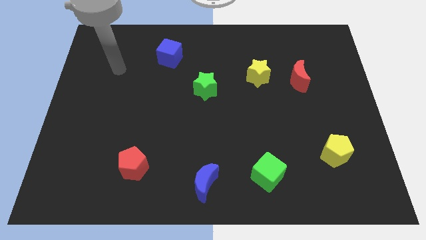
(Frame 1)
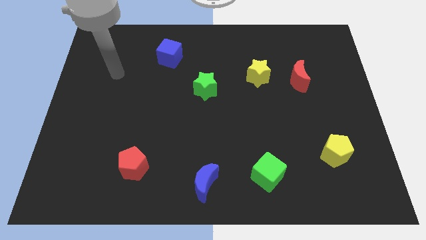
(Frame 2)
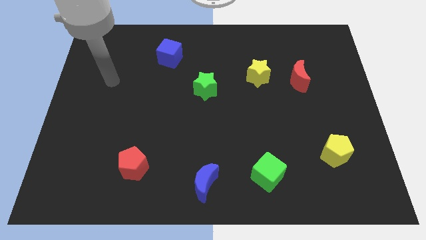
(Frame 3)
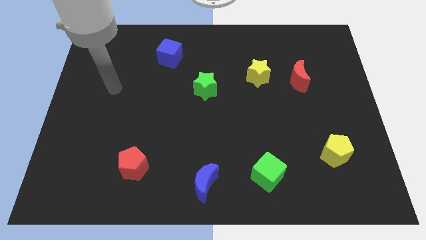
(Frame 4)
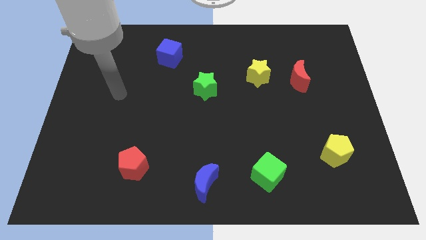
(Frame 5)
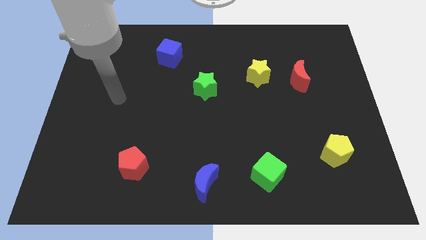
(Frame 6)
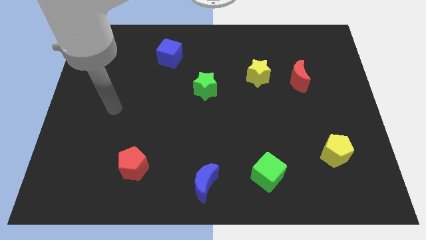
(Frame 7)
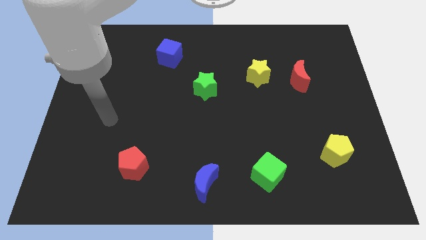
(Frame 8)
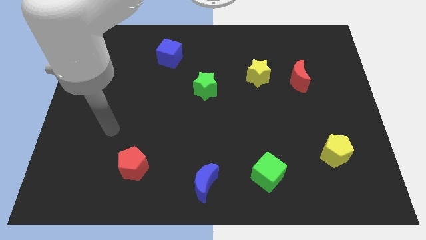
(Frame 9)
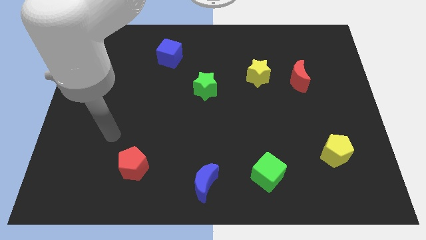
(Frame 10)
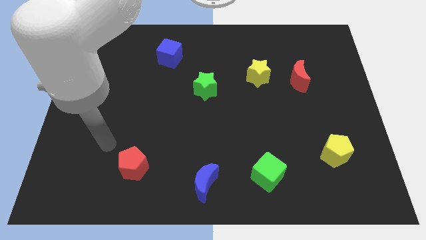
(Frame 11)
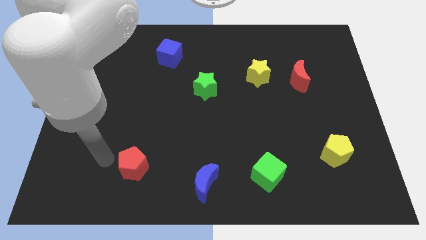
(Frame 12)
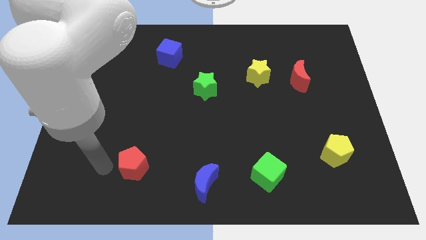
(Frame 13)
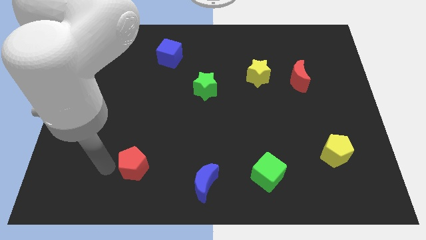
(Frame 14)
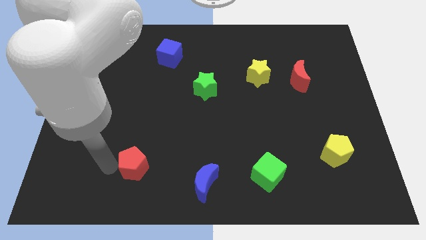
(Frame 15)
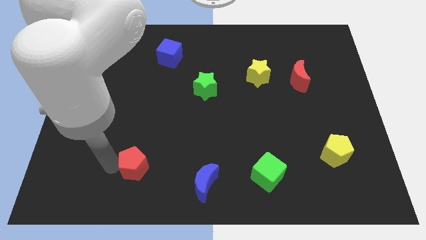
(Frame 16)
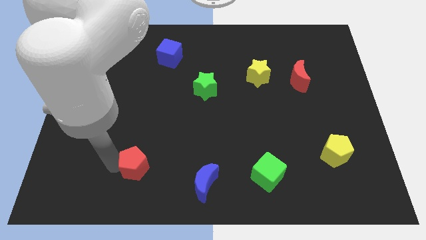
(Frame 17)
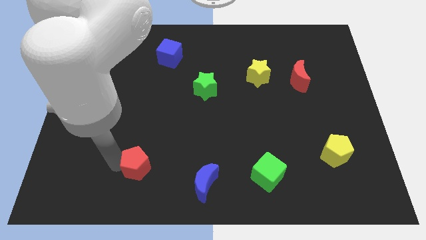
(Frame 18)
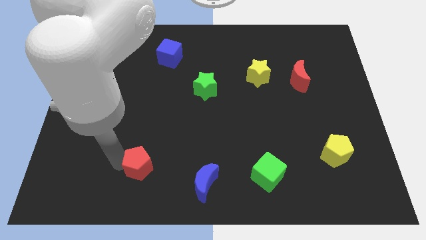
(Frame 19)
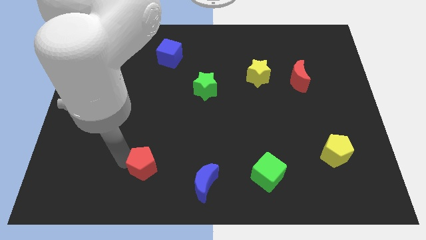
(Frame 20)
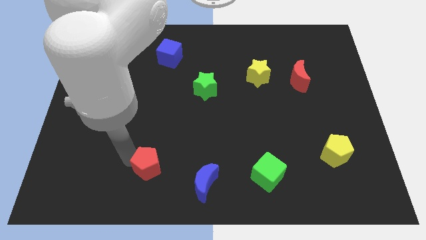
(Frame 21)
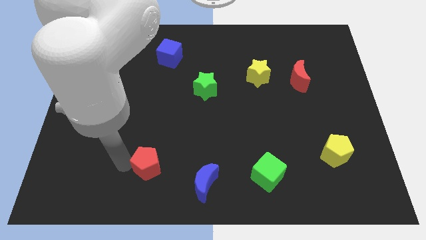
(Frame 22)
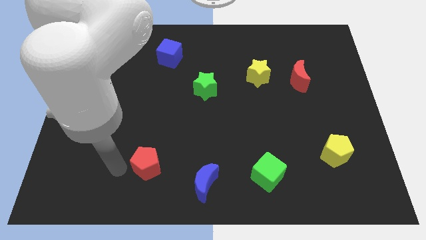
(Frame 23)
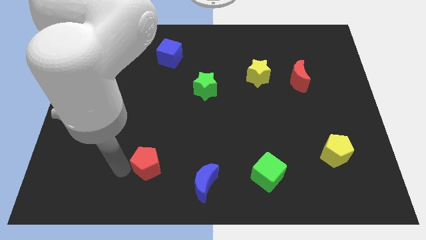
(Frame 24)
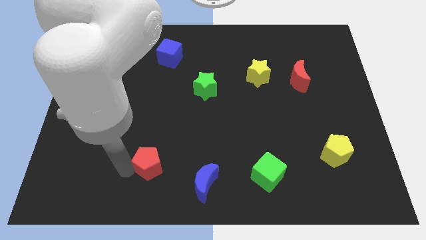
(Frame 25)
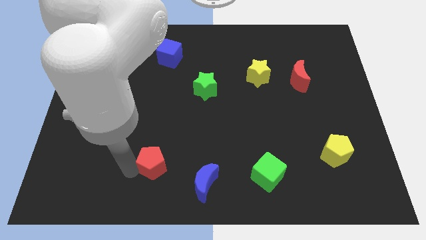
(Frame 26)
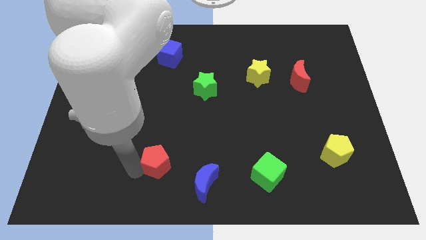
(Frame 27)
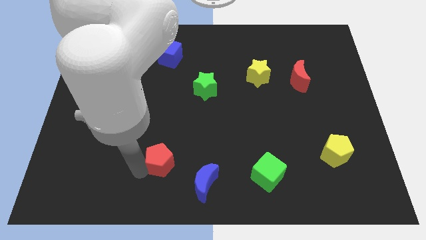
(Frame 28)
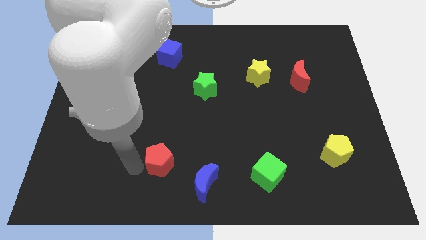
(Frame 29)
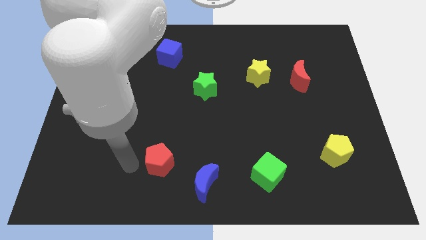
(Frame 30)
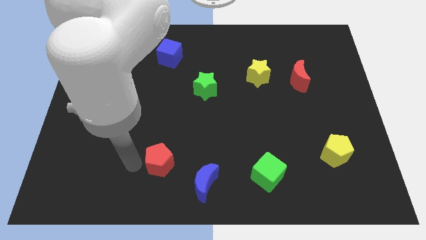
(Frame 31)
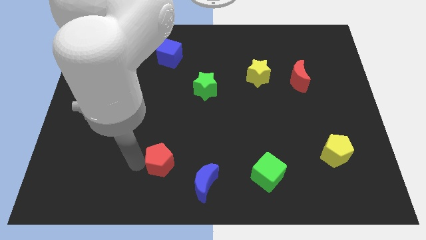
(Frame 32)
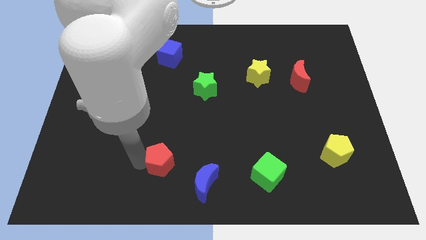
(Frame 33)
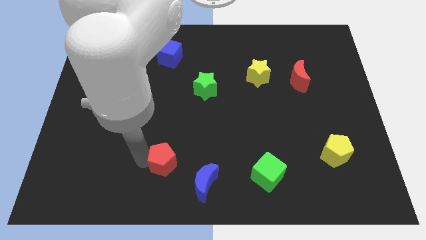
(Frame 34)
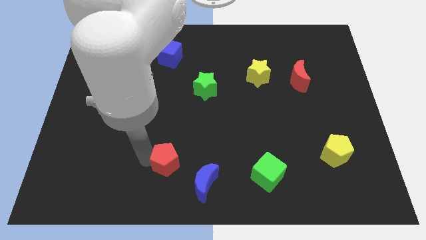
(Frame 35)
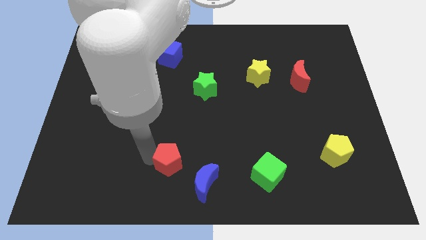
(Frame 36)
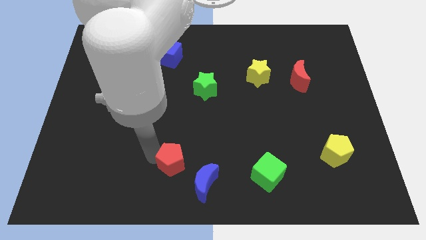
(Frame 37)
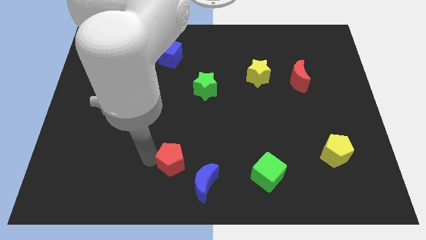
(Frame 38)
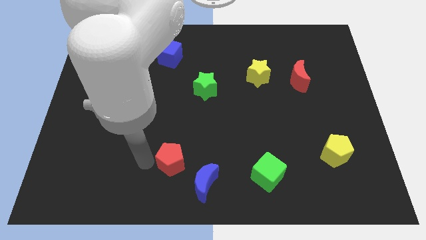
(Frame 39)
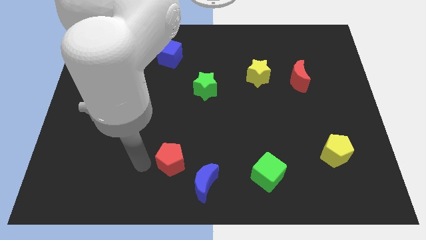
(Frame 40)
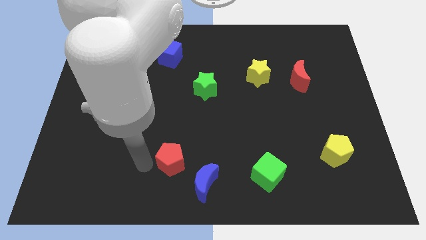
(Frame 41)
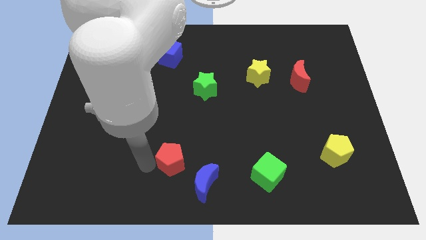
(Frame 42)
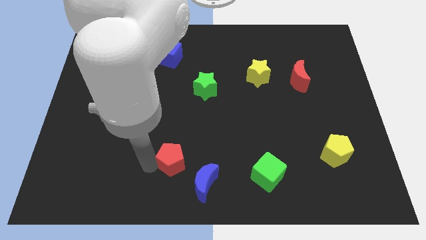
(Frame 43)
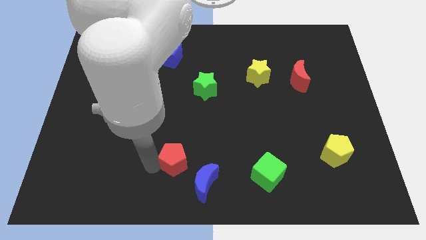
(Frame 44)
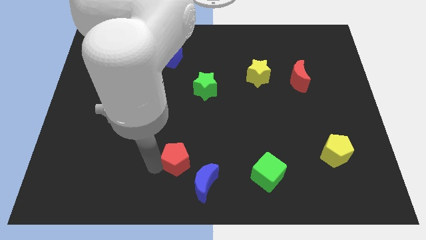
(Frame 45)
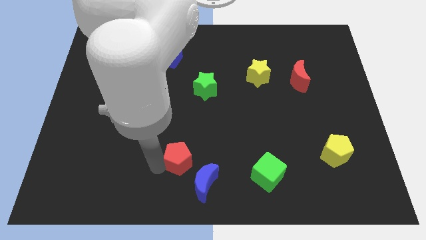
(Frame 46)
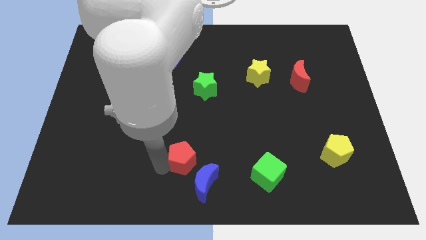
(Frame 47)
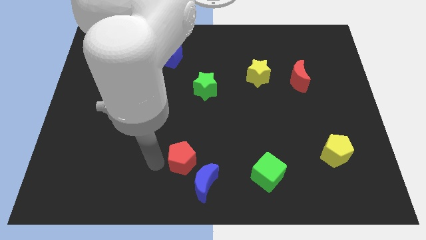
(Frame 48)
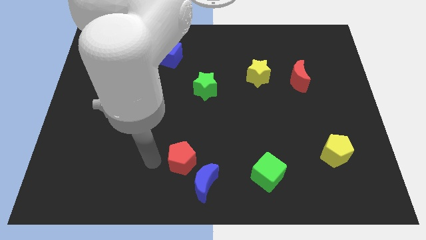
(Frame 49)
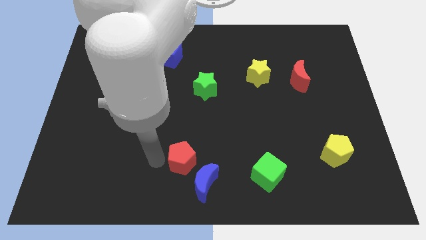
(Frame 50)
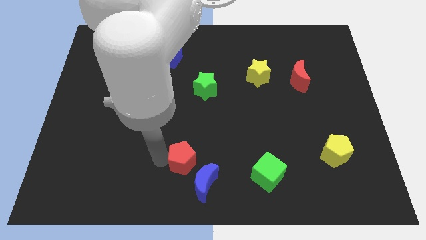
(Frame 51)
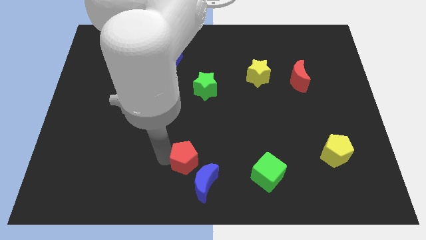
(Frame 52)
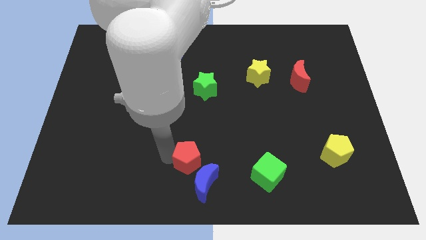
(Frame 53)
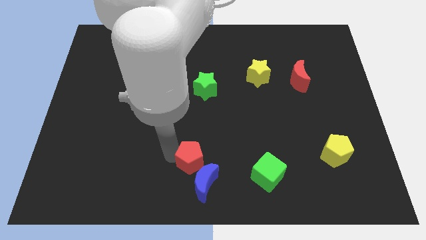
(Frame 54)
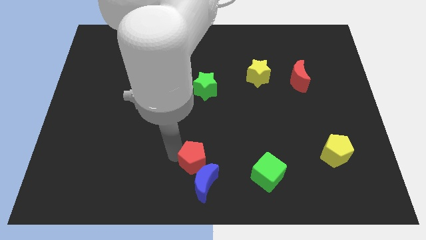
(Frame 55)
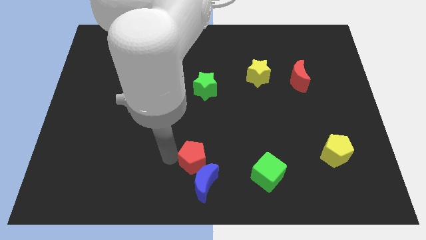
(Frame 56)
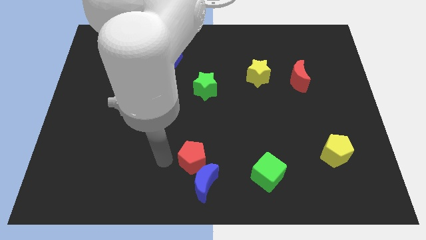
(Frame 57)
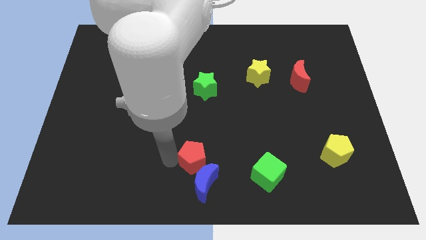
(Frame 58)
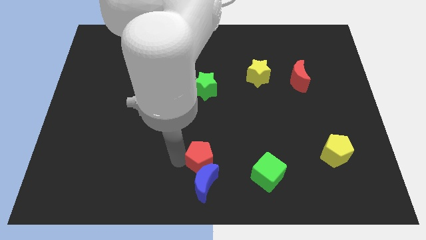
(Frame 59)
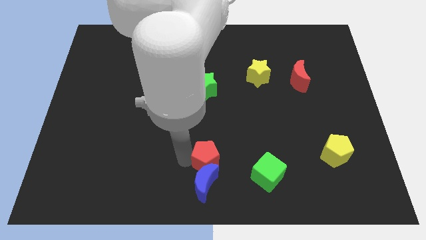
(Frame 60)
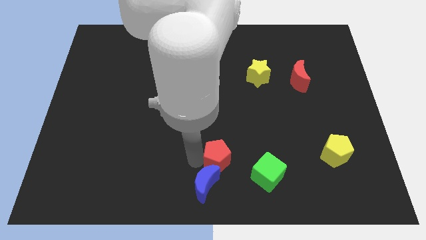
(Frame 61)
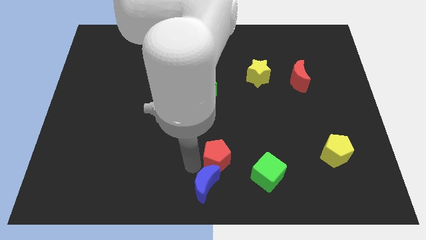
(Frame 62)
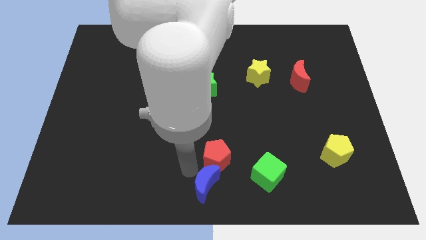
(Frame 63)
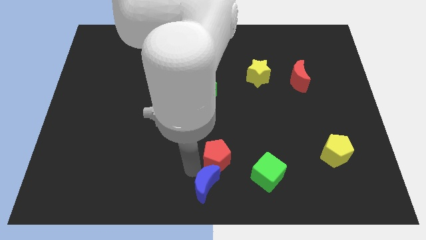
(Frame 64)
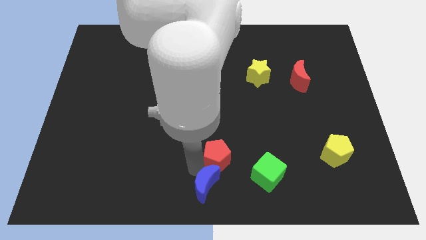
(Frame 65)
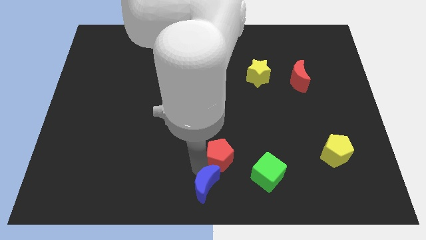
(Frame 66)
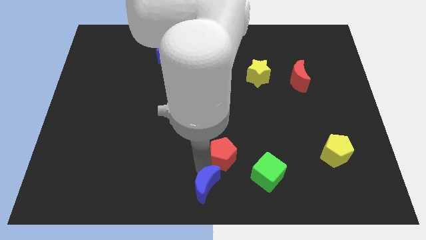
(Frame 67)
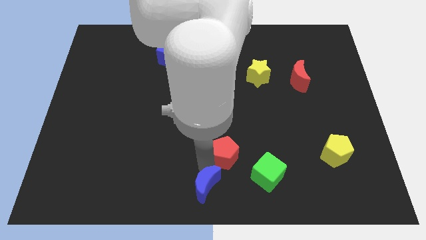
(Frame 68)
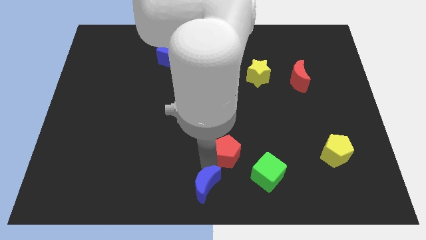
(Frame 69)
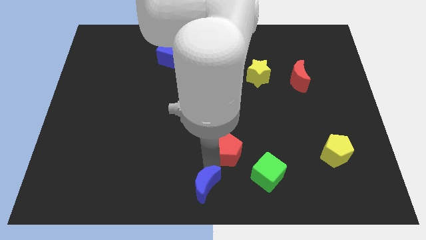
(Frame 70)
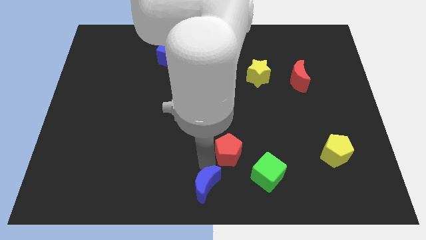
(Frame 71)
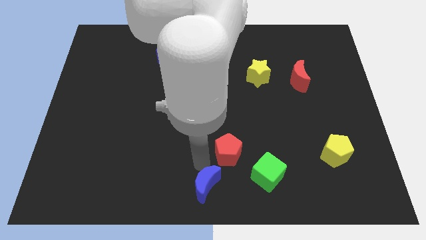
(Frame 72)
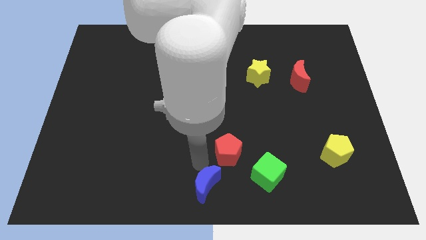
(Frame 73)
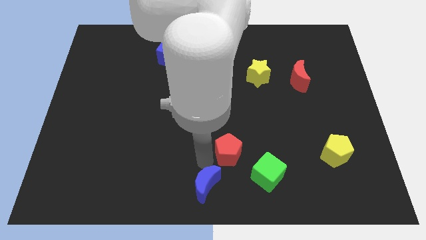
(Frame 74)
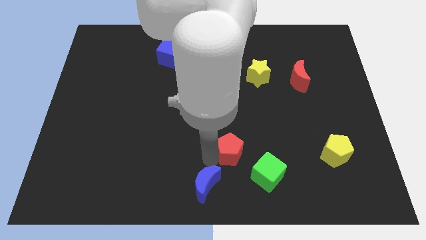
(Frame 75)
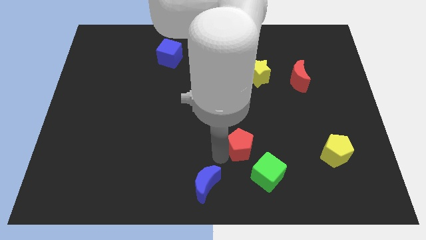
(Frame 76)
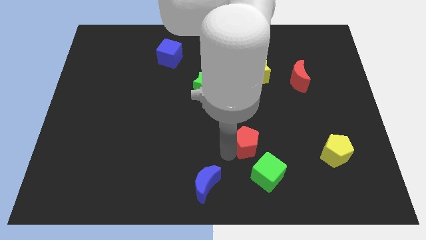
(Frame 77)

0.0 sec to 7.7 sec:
put the red pentagon above the green cube
